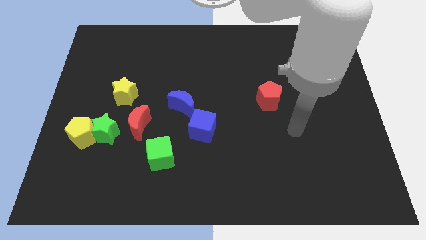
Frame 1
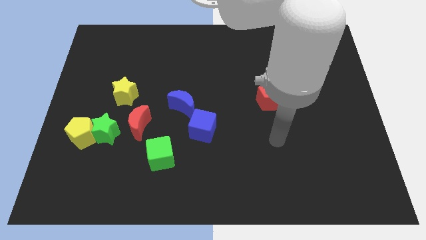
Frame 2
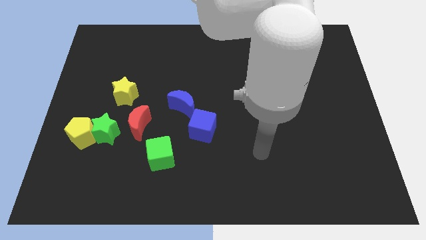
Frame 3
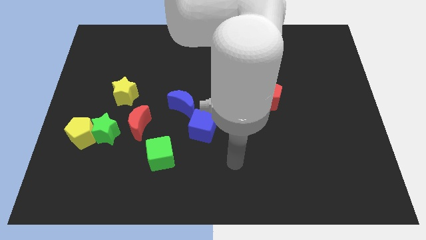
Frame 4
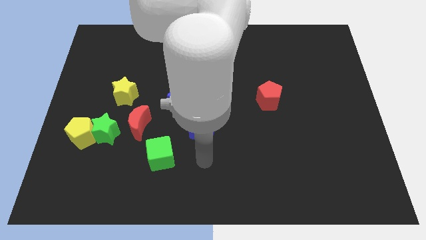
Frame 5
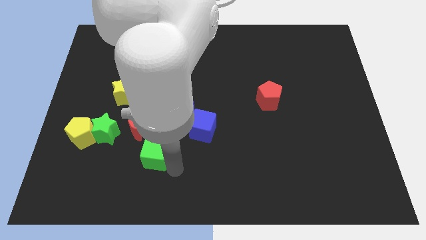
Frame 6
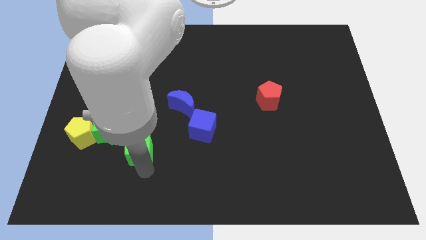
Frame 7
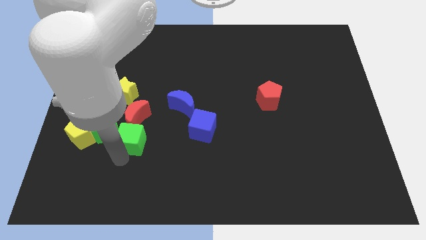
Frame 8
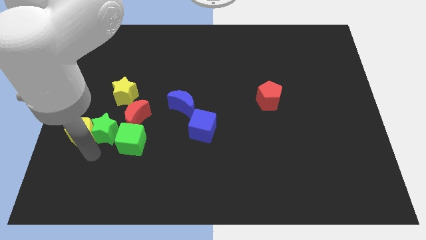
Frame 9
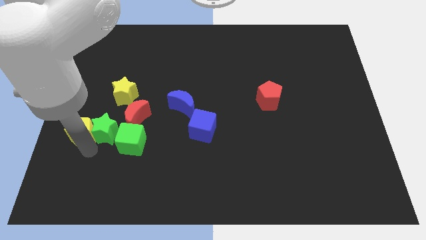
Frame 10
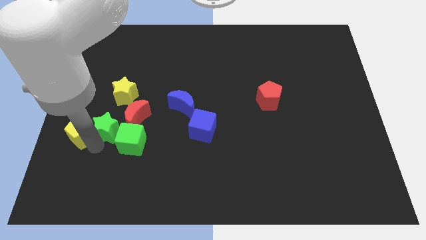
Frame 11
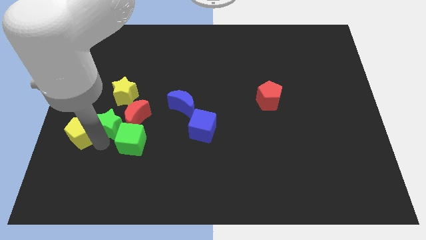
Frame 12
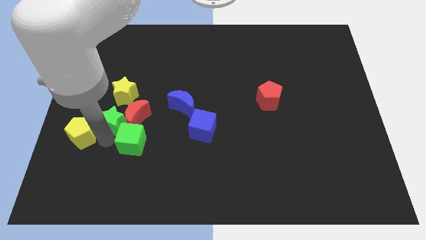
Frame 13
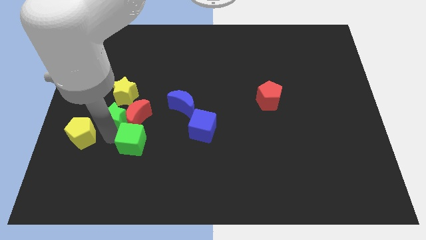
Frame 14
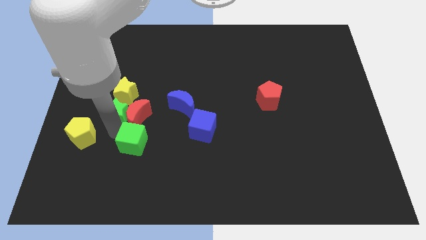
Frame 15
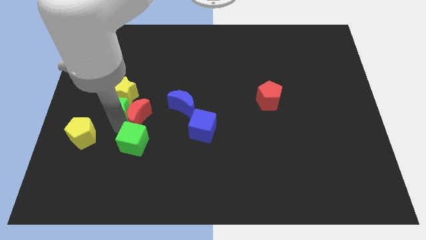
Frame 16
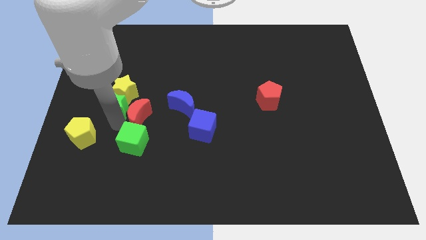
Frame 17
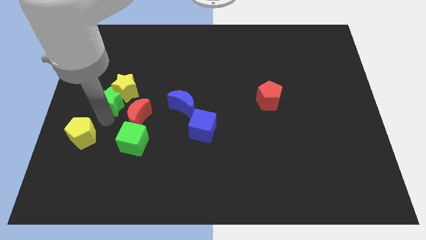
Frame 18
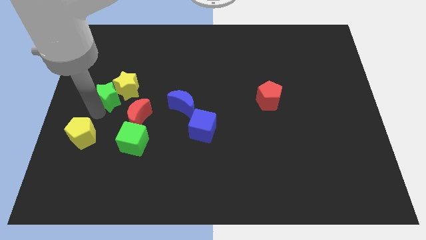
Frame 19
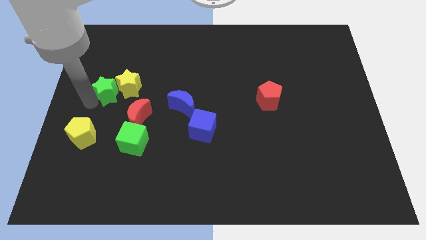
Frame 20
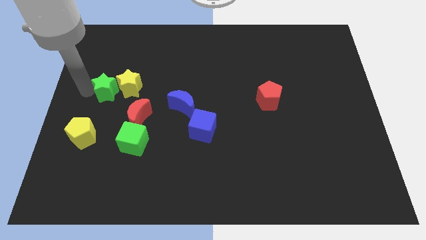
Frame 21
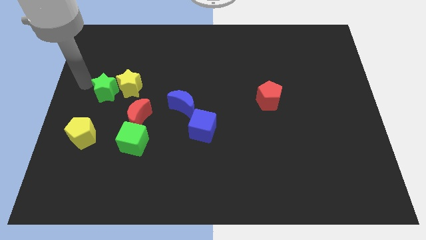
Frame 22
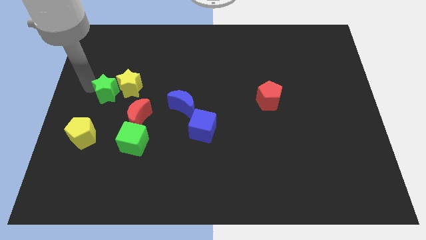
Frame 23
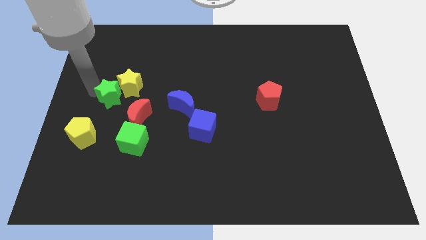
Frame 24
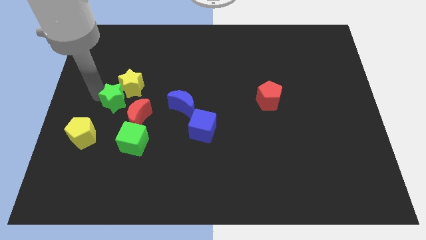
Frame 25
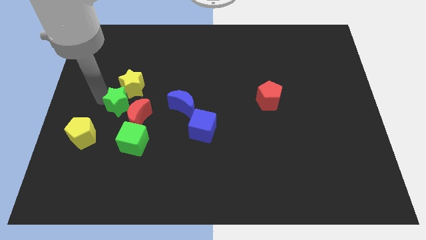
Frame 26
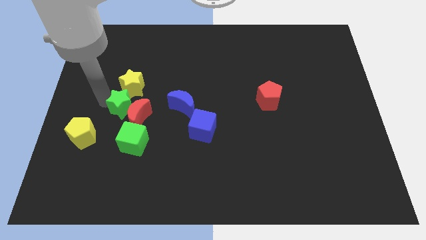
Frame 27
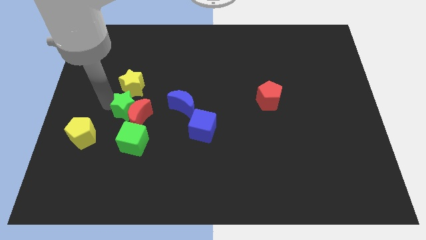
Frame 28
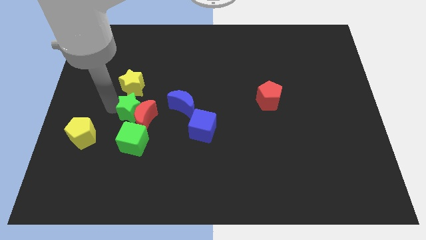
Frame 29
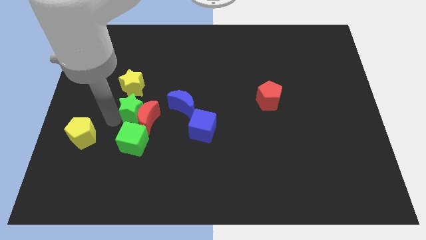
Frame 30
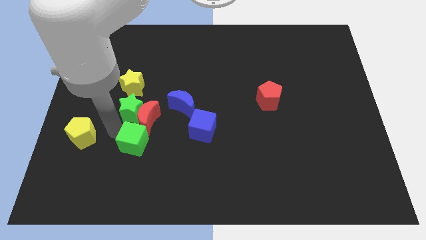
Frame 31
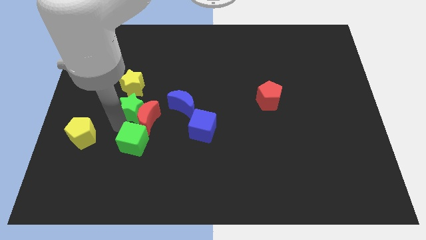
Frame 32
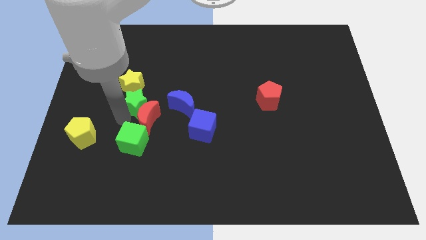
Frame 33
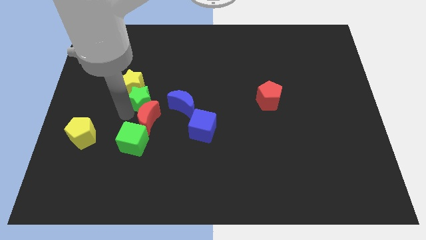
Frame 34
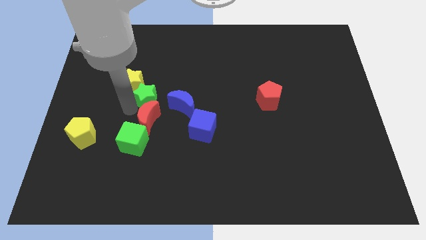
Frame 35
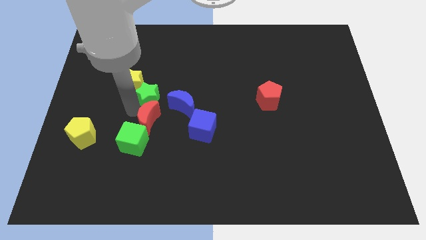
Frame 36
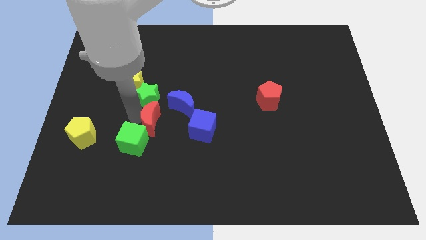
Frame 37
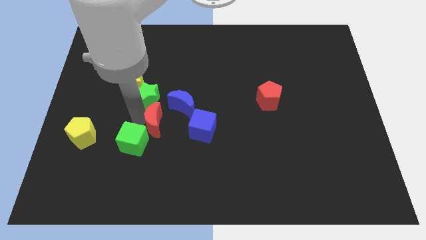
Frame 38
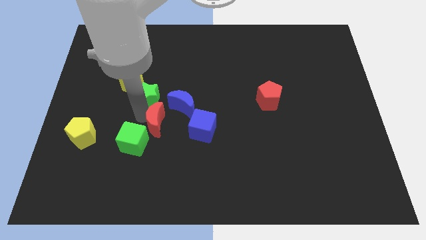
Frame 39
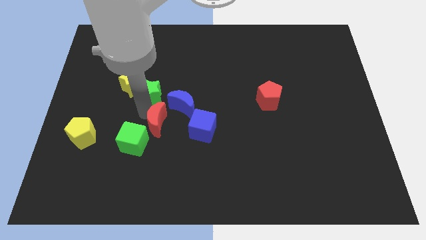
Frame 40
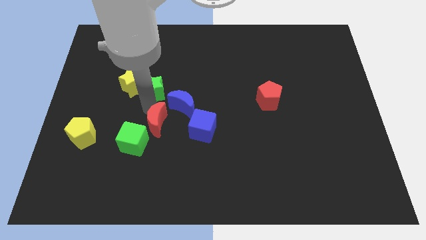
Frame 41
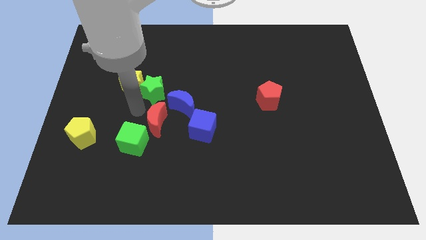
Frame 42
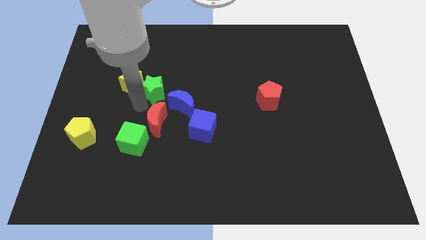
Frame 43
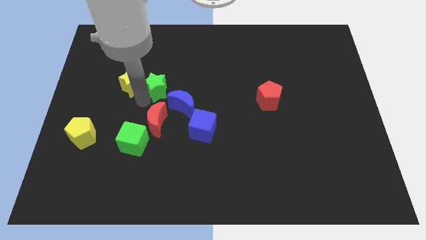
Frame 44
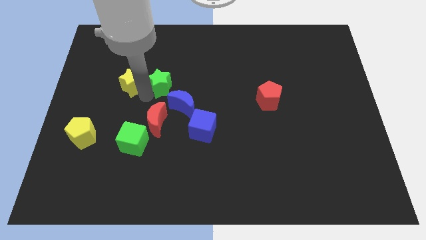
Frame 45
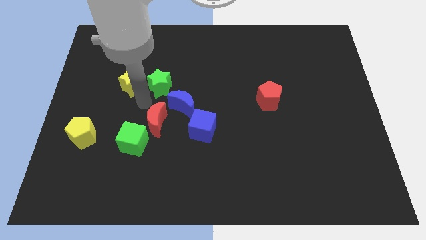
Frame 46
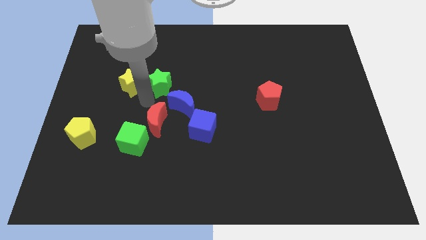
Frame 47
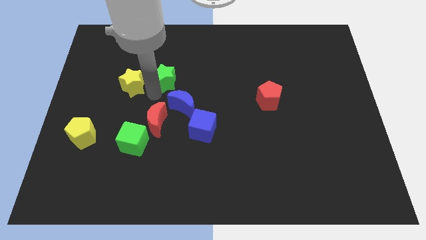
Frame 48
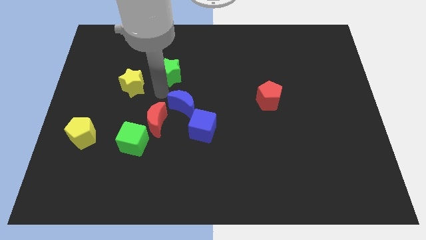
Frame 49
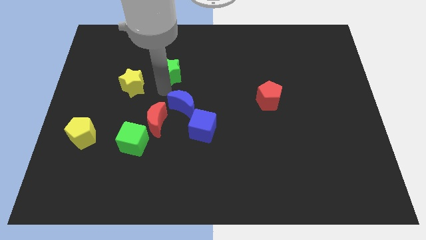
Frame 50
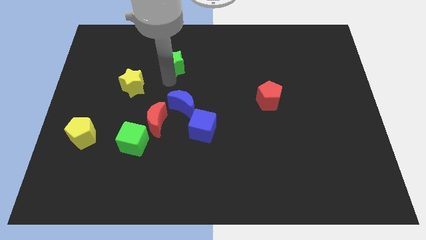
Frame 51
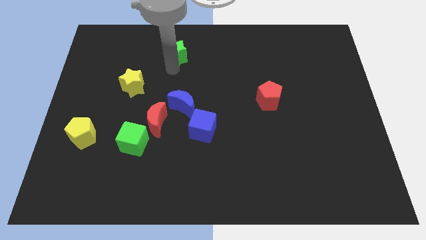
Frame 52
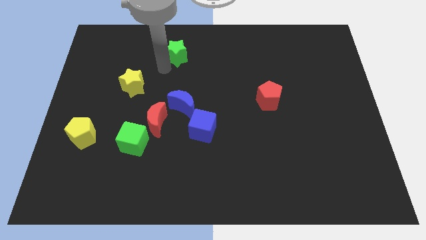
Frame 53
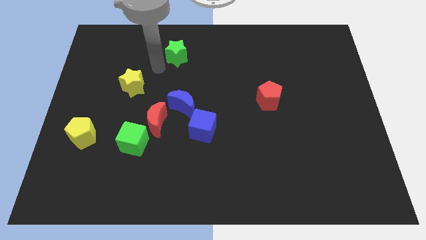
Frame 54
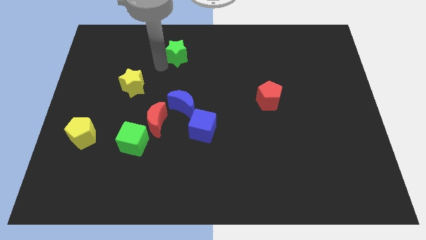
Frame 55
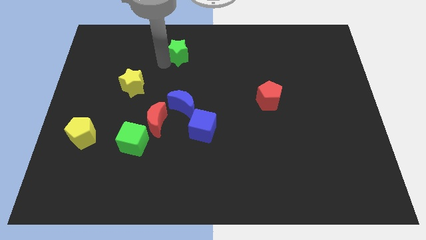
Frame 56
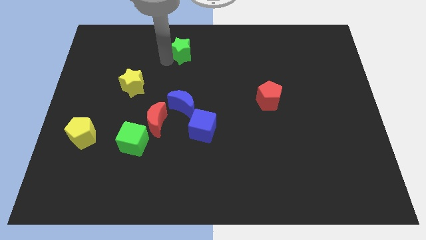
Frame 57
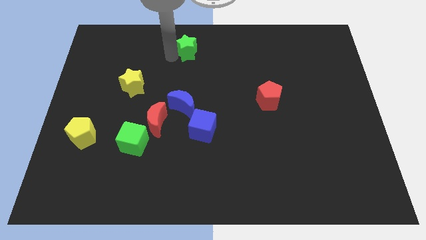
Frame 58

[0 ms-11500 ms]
put the green star to the top

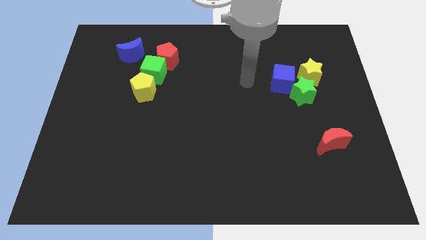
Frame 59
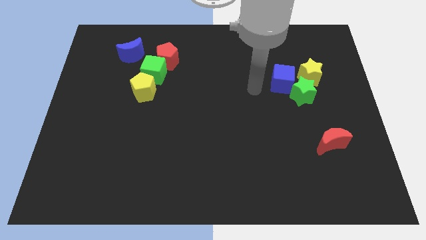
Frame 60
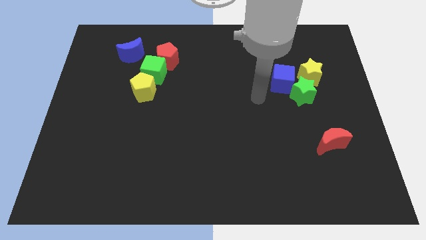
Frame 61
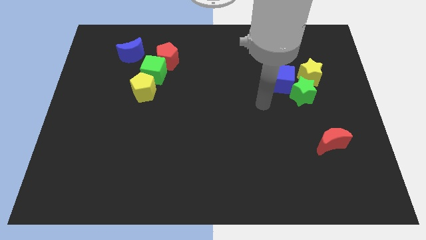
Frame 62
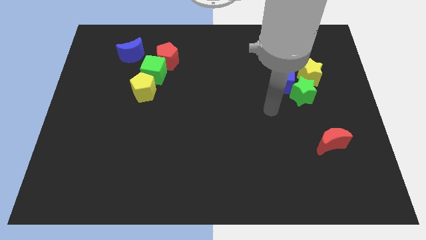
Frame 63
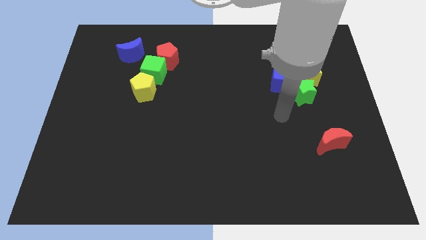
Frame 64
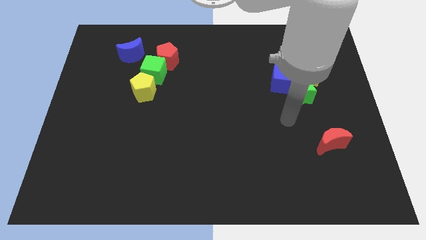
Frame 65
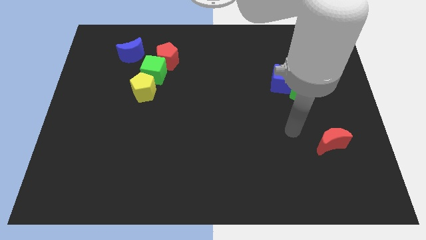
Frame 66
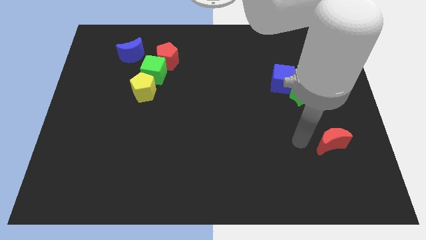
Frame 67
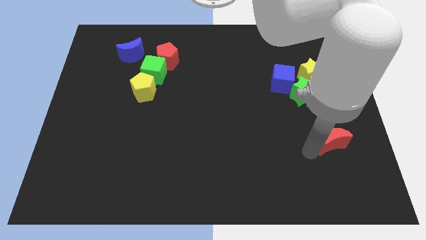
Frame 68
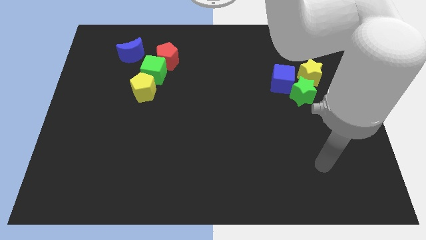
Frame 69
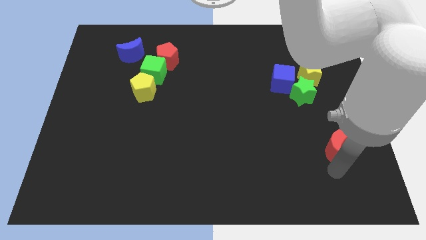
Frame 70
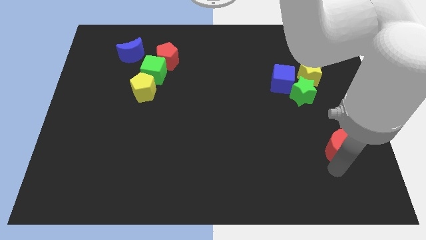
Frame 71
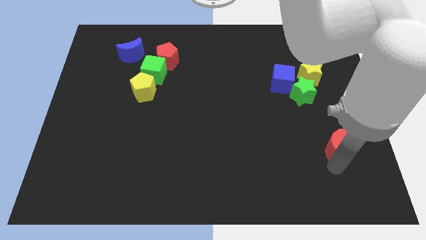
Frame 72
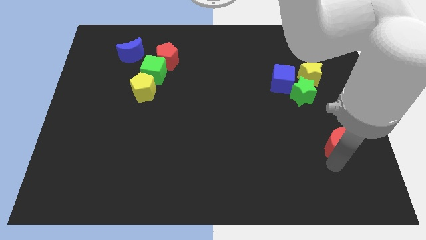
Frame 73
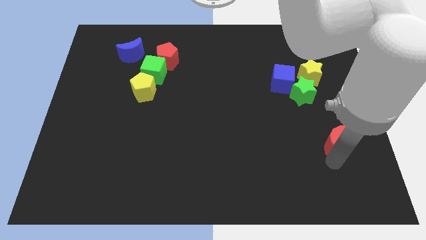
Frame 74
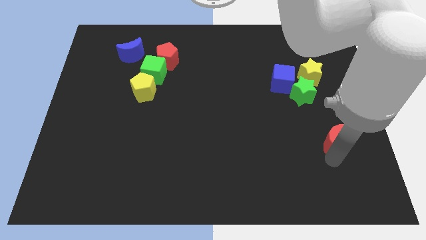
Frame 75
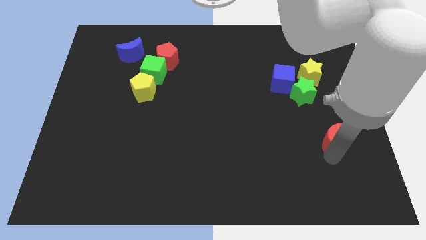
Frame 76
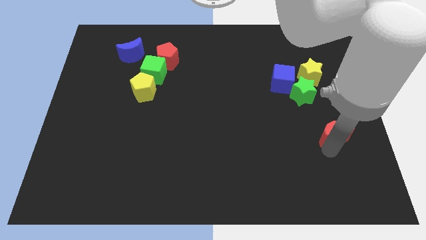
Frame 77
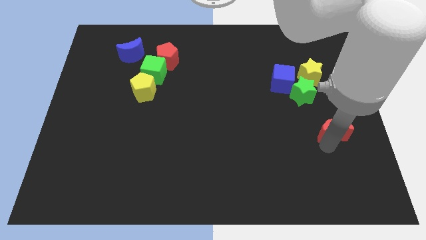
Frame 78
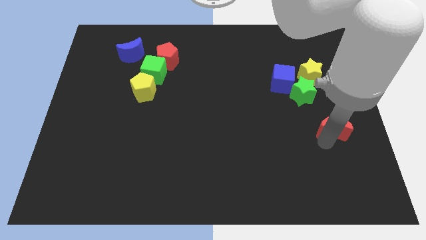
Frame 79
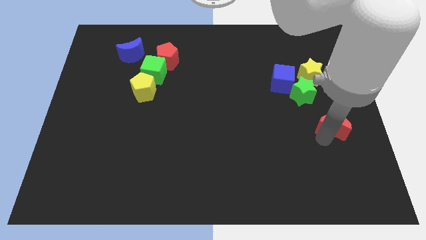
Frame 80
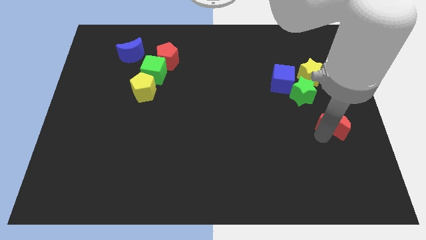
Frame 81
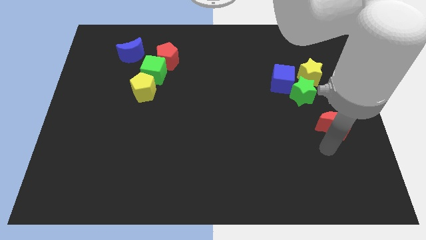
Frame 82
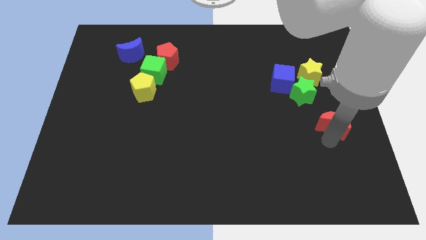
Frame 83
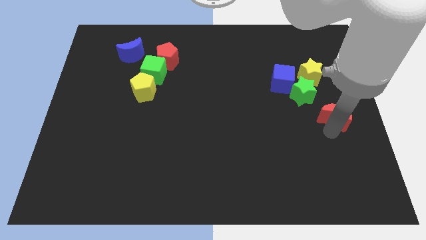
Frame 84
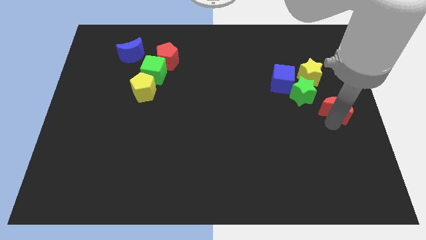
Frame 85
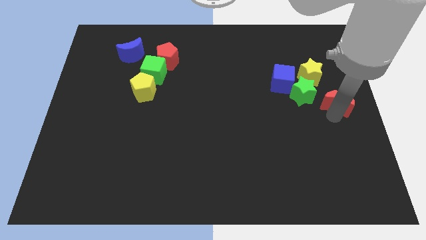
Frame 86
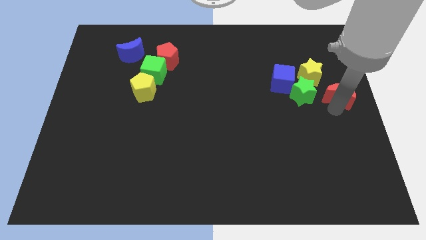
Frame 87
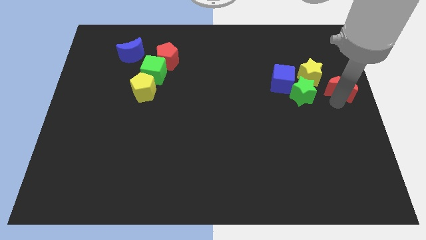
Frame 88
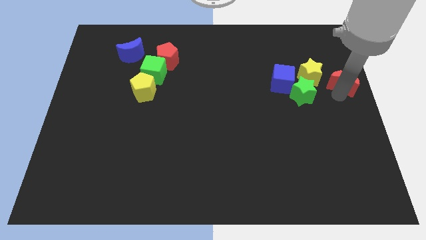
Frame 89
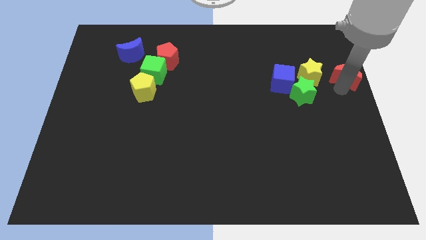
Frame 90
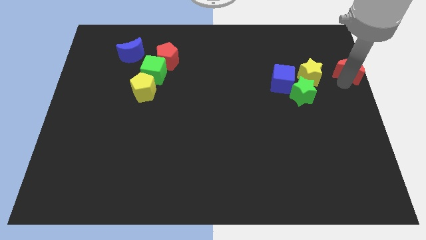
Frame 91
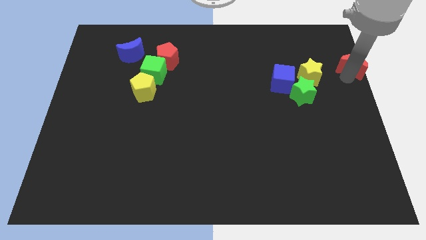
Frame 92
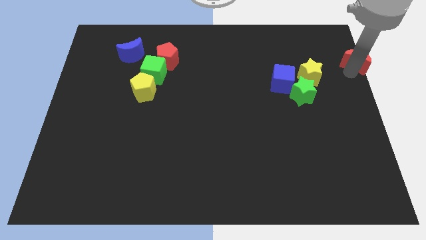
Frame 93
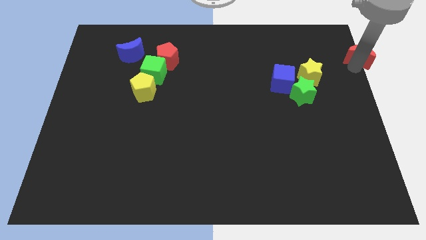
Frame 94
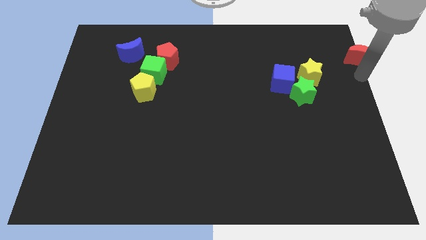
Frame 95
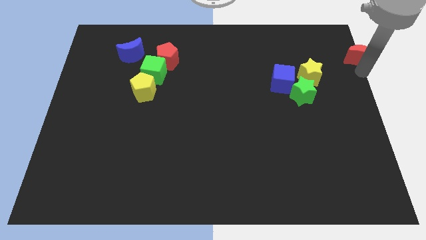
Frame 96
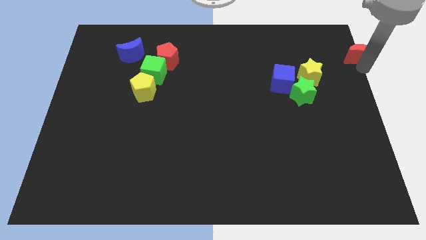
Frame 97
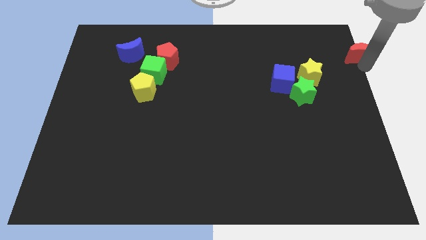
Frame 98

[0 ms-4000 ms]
push the red moon to the top right corner
